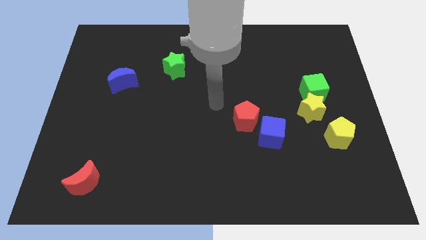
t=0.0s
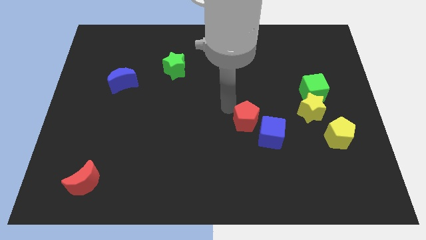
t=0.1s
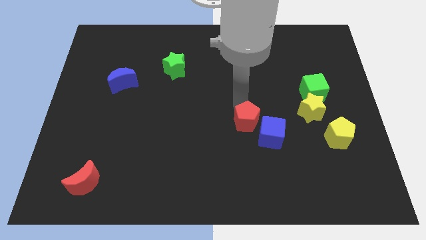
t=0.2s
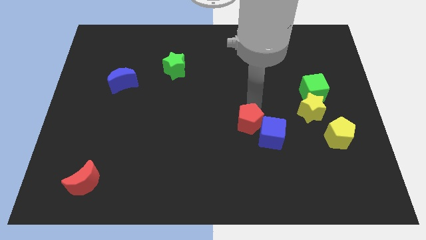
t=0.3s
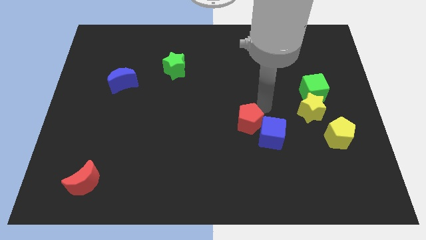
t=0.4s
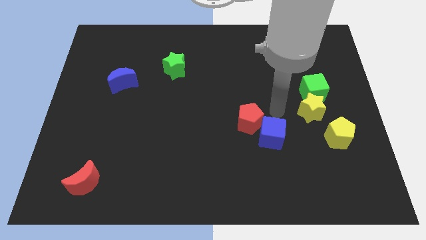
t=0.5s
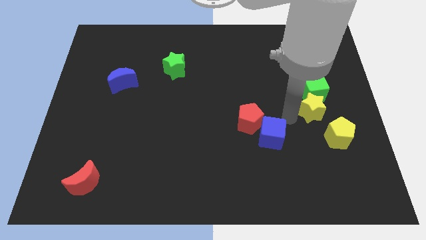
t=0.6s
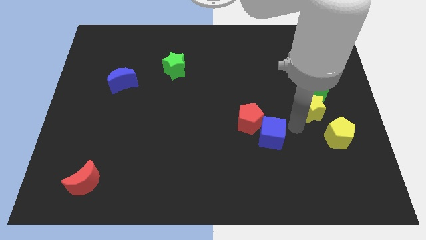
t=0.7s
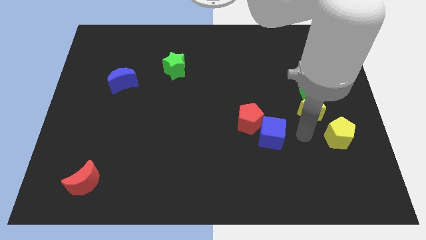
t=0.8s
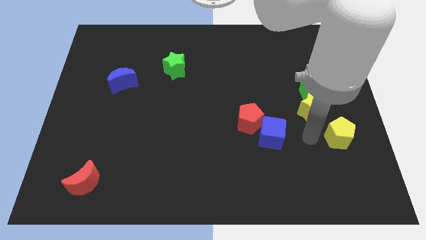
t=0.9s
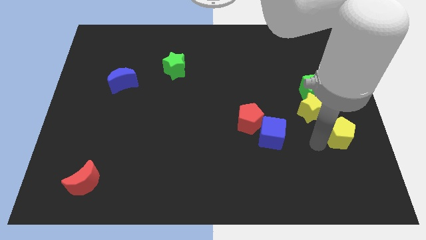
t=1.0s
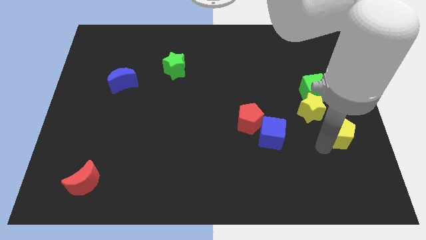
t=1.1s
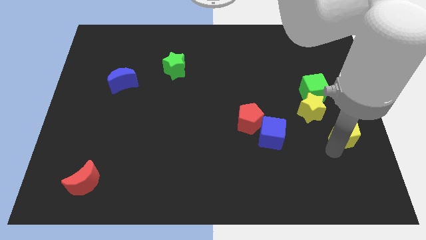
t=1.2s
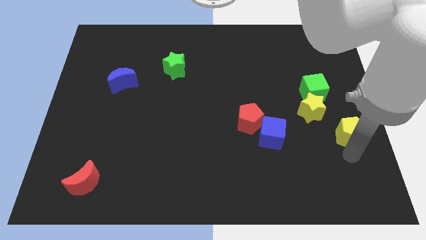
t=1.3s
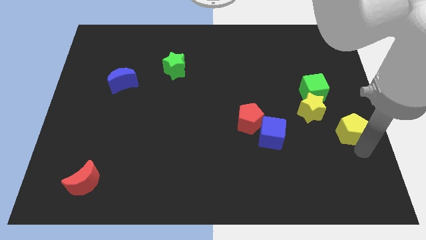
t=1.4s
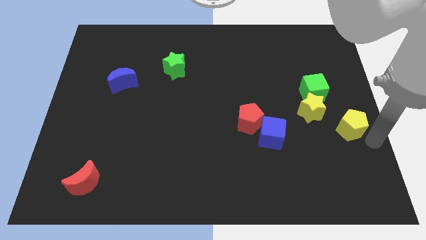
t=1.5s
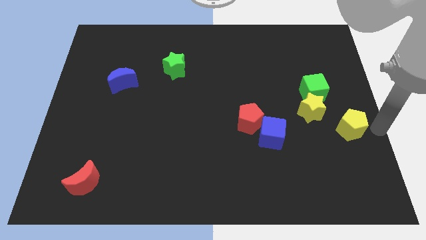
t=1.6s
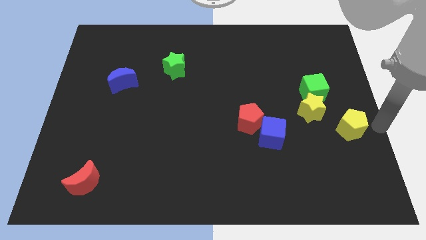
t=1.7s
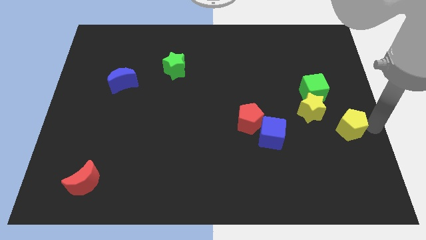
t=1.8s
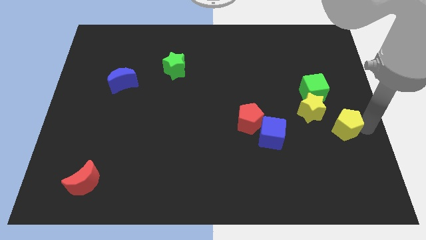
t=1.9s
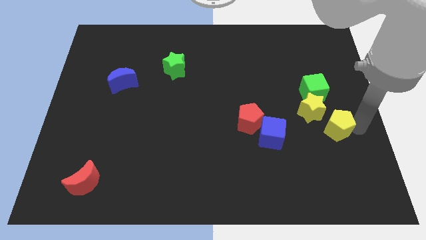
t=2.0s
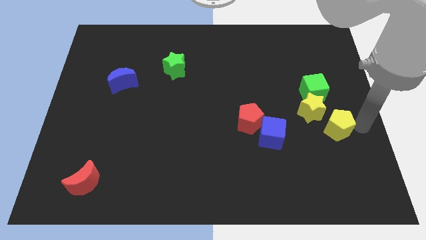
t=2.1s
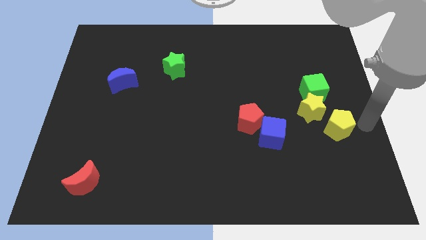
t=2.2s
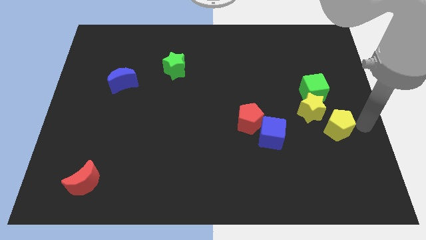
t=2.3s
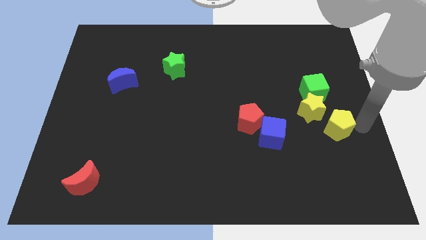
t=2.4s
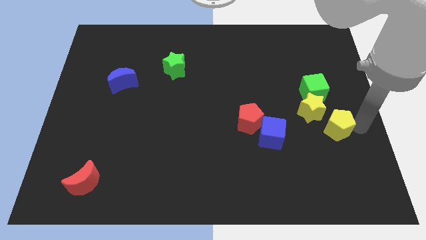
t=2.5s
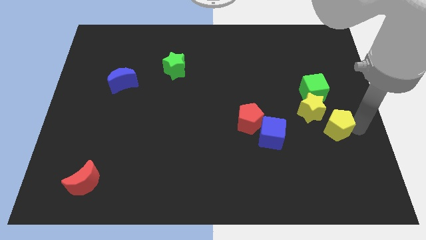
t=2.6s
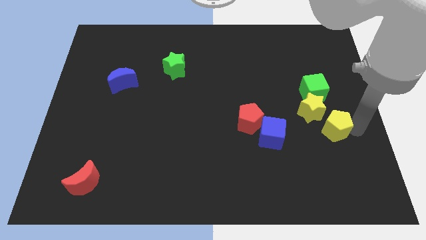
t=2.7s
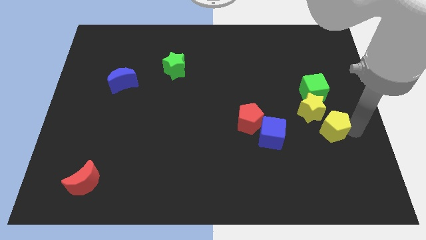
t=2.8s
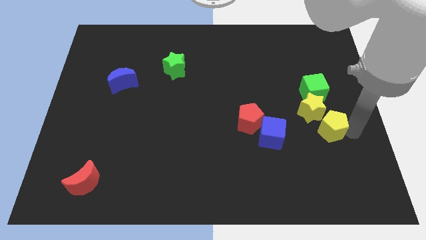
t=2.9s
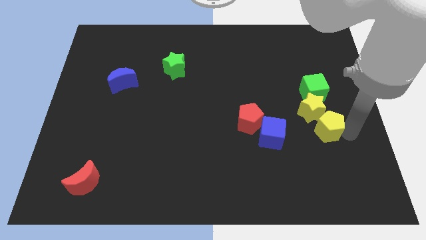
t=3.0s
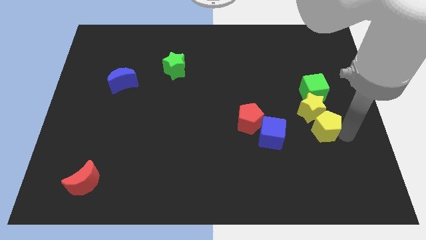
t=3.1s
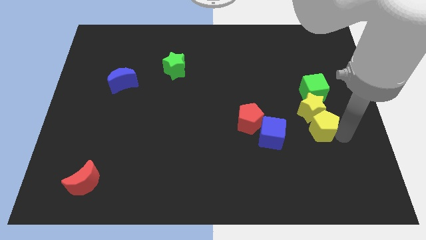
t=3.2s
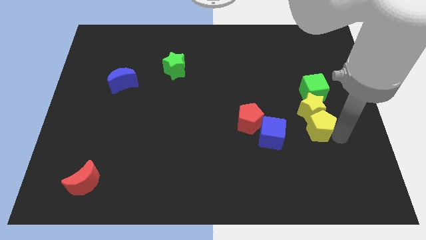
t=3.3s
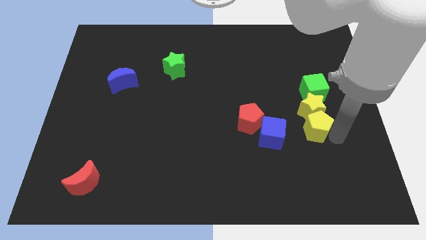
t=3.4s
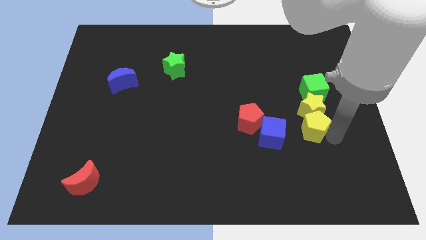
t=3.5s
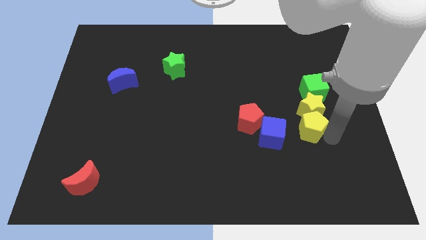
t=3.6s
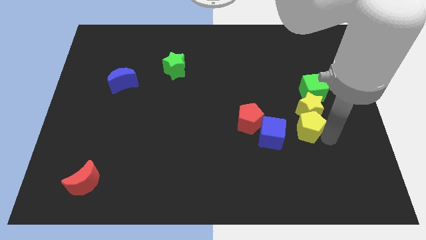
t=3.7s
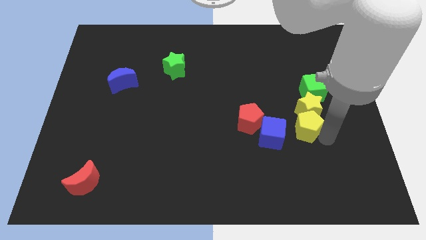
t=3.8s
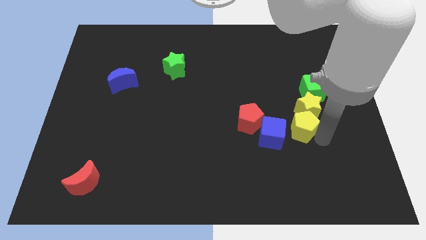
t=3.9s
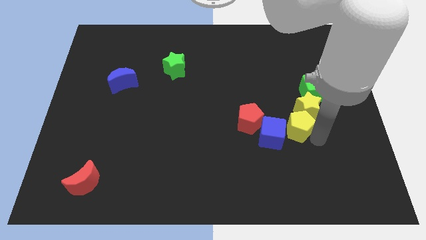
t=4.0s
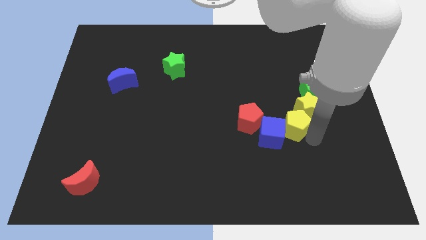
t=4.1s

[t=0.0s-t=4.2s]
push the yellow pentagon slightly diagonally upwards and left

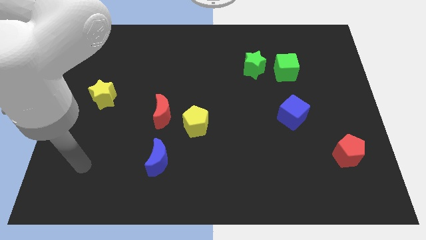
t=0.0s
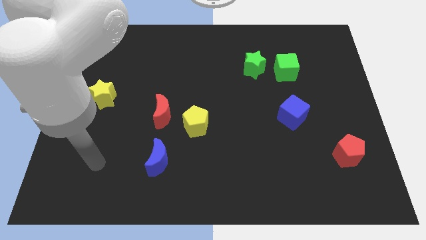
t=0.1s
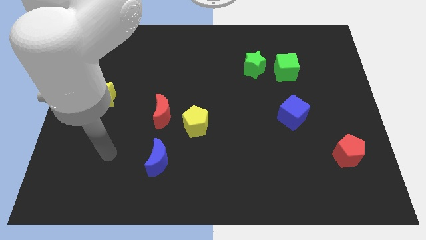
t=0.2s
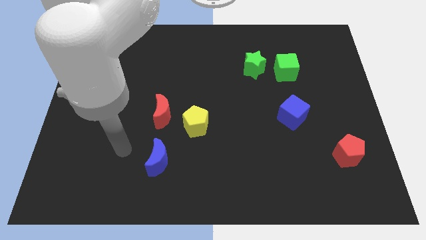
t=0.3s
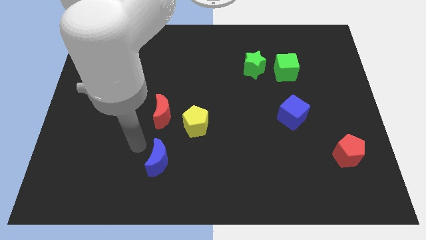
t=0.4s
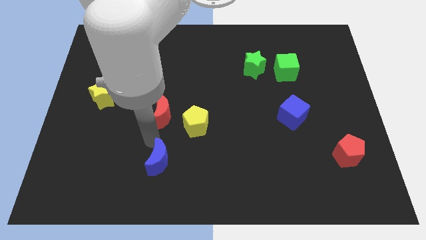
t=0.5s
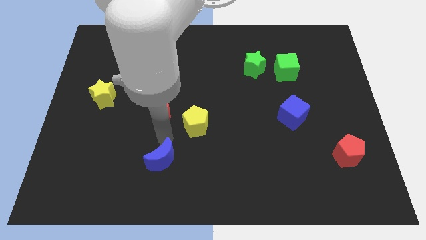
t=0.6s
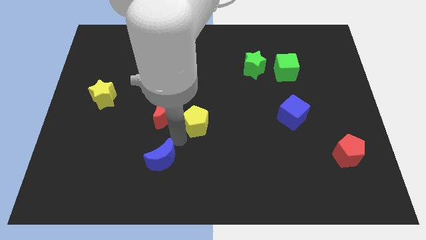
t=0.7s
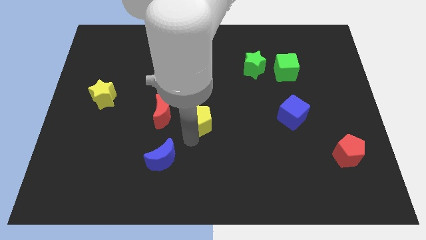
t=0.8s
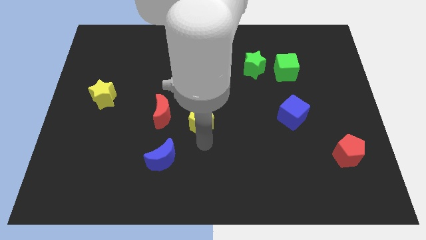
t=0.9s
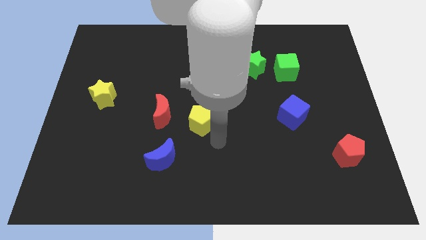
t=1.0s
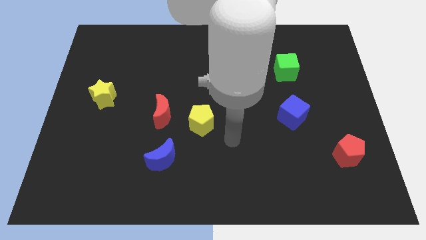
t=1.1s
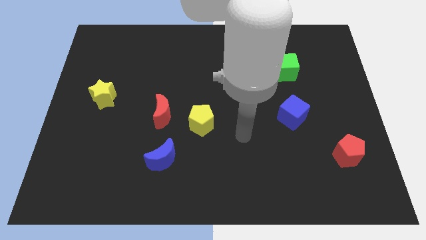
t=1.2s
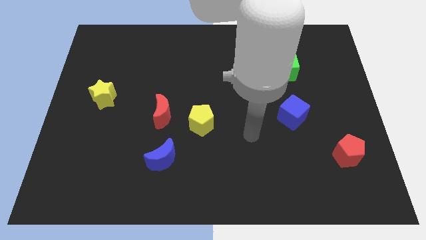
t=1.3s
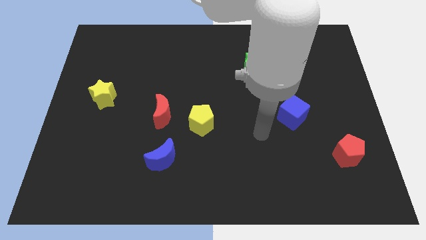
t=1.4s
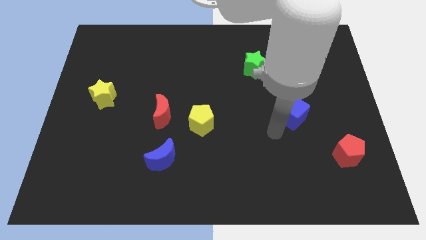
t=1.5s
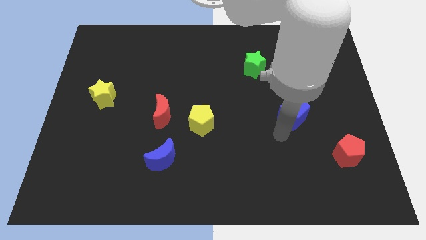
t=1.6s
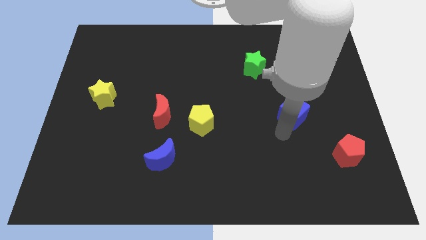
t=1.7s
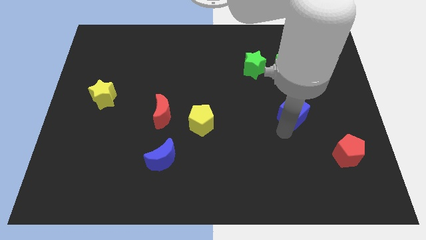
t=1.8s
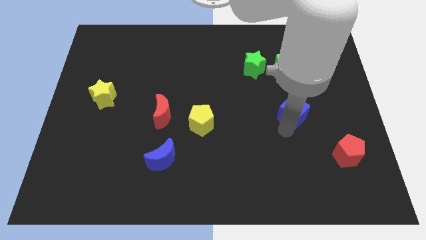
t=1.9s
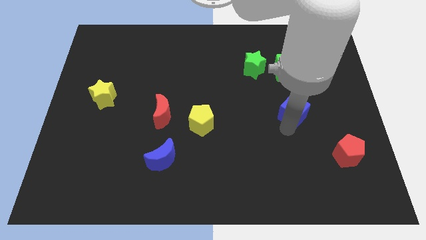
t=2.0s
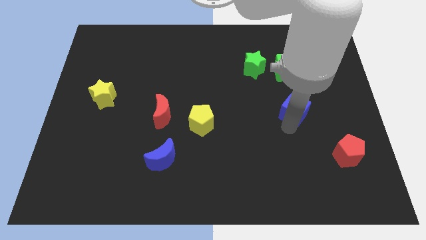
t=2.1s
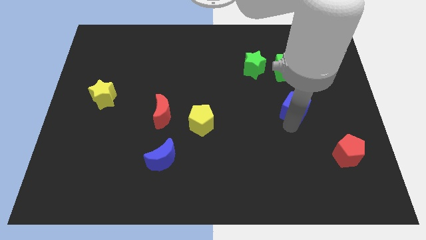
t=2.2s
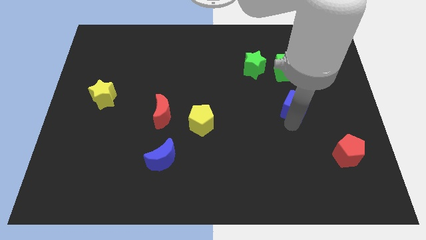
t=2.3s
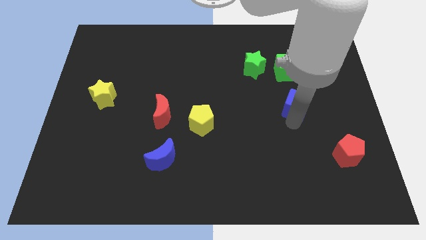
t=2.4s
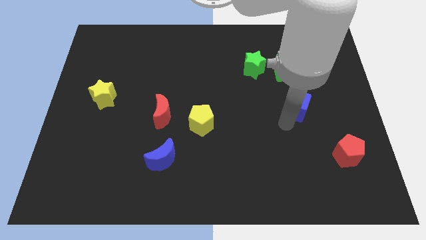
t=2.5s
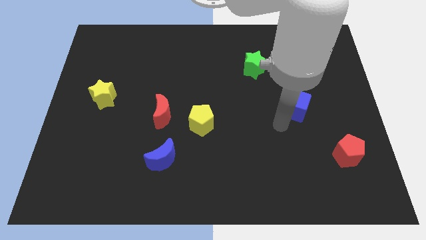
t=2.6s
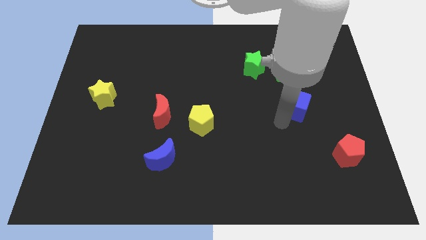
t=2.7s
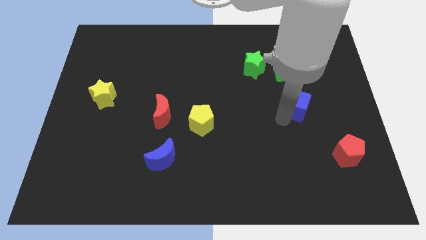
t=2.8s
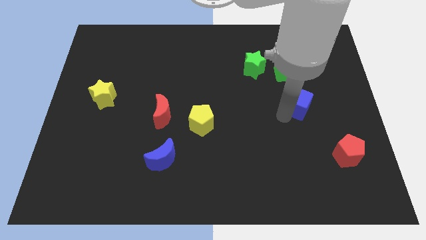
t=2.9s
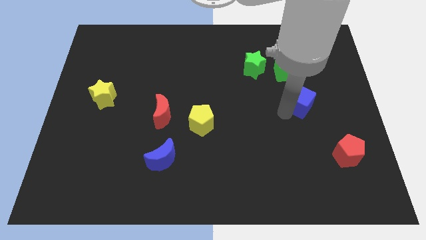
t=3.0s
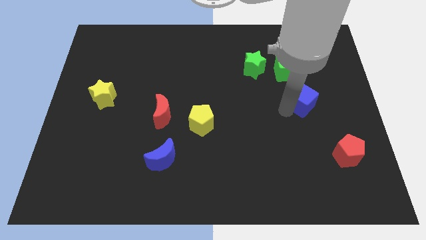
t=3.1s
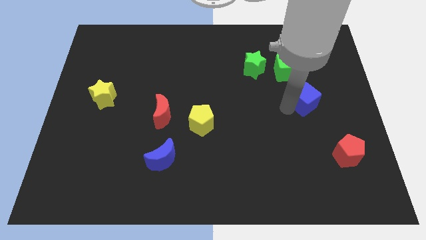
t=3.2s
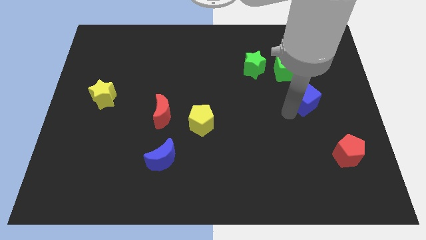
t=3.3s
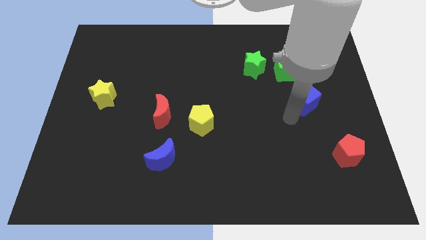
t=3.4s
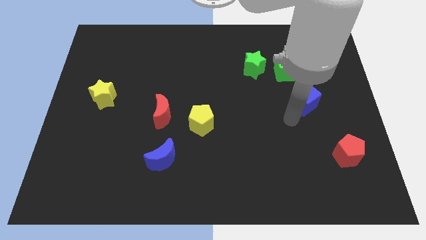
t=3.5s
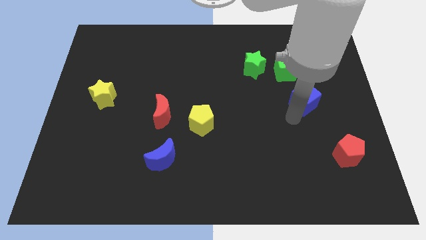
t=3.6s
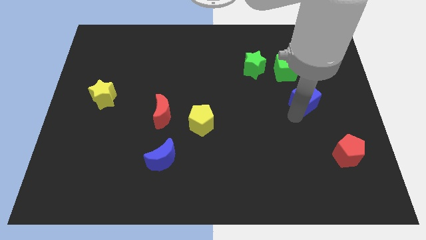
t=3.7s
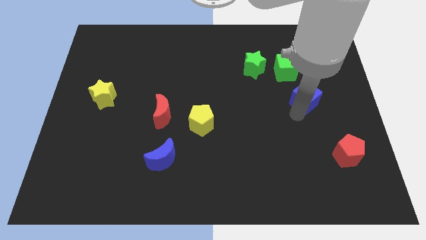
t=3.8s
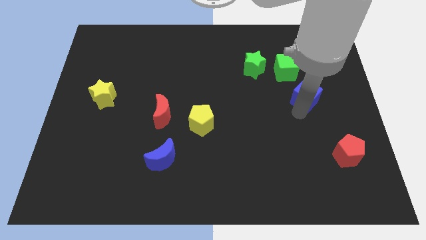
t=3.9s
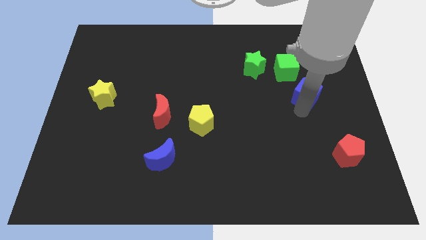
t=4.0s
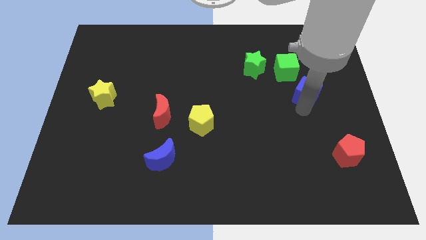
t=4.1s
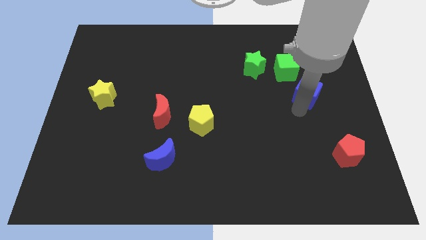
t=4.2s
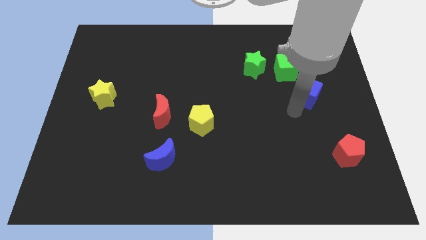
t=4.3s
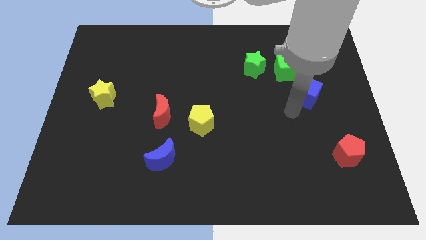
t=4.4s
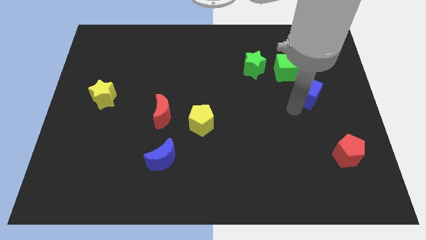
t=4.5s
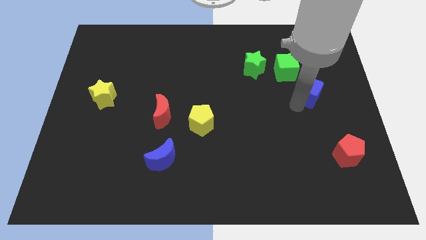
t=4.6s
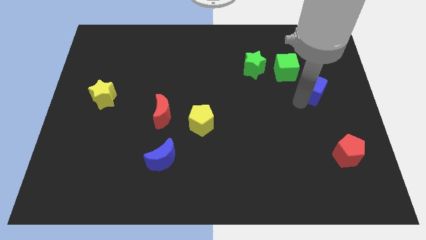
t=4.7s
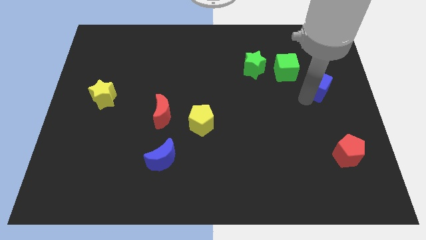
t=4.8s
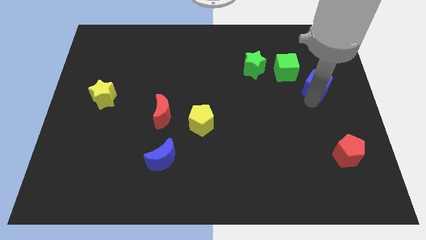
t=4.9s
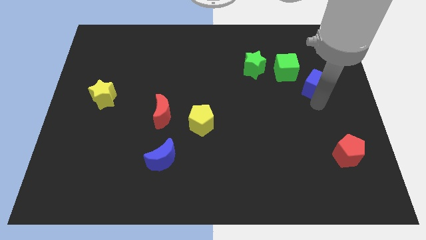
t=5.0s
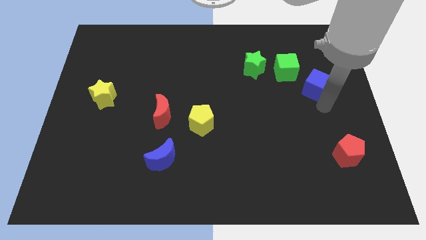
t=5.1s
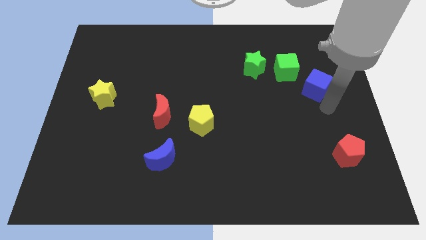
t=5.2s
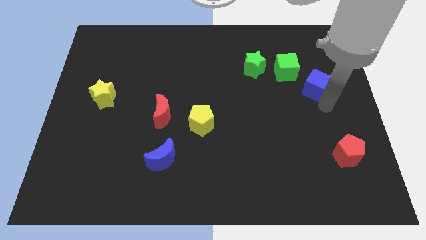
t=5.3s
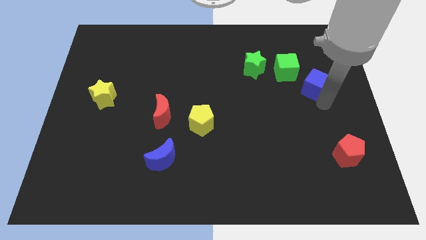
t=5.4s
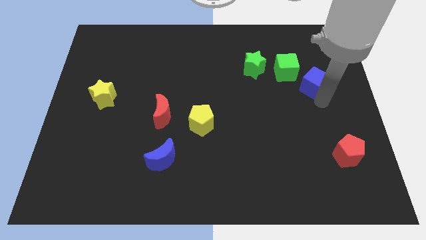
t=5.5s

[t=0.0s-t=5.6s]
slightly slide the blue cube upwards
